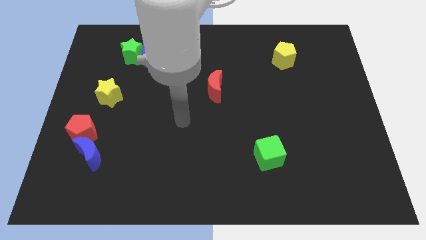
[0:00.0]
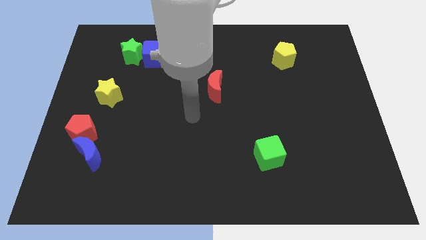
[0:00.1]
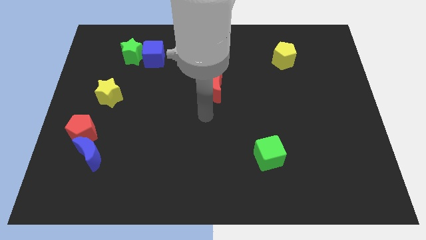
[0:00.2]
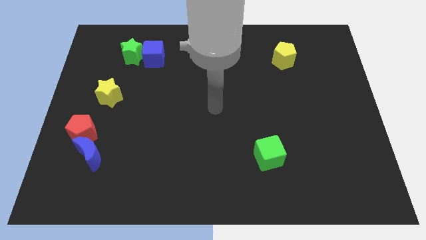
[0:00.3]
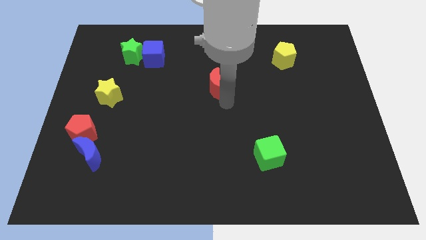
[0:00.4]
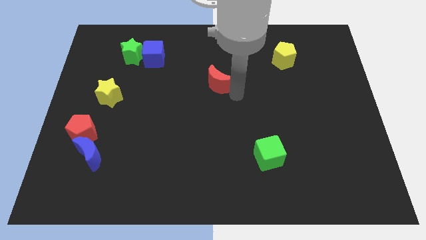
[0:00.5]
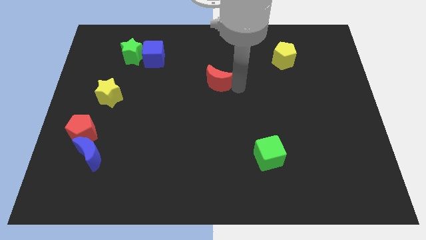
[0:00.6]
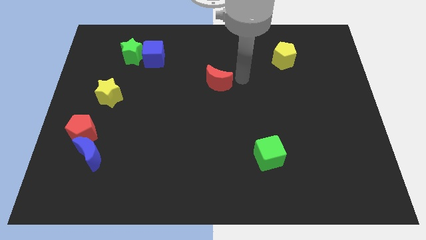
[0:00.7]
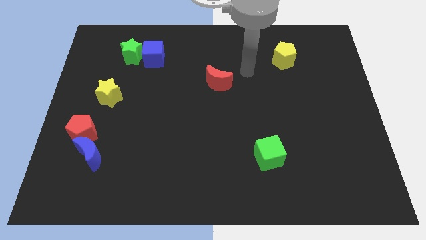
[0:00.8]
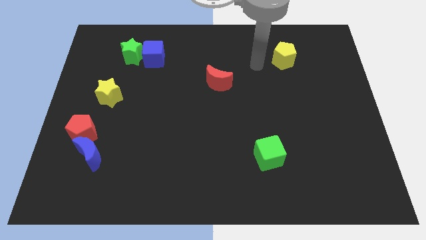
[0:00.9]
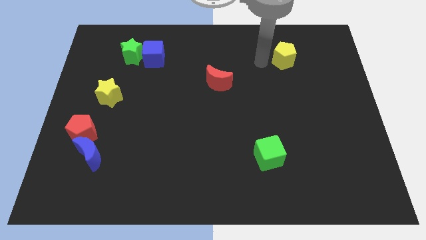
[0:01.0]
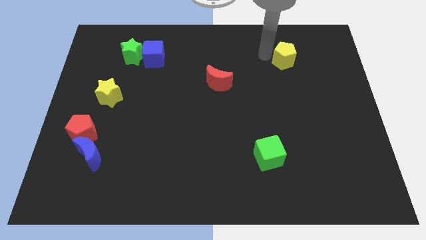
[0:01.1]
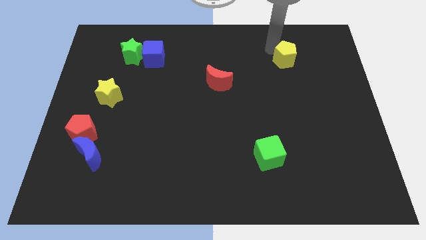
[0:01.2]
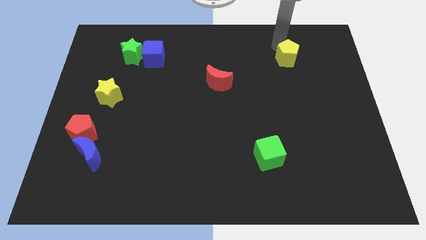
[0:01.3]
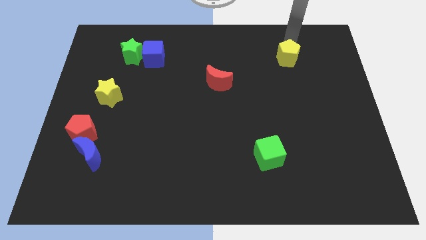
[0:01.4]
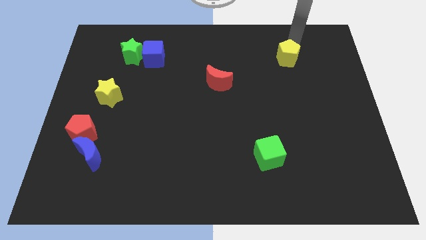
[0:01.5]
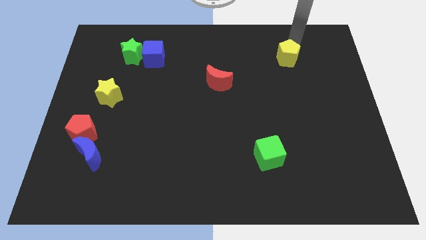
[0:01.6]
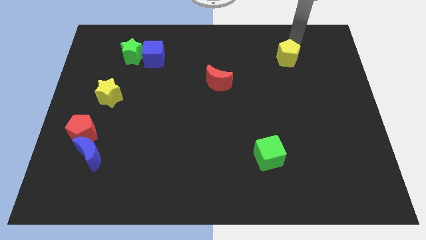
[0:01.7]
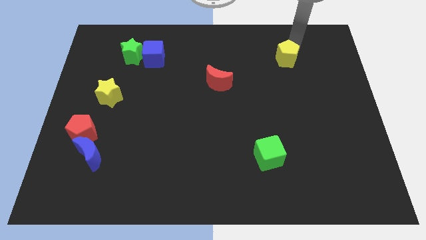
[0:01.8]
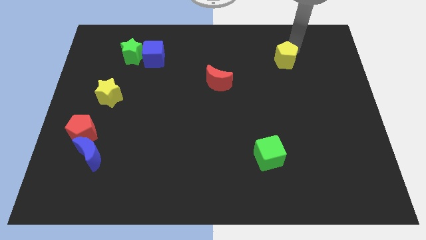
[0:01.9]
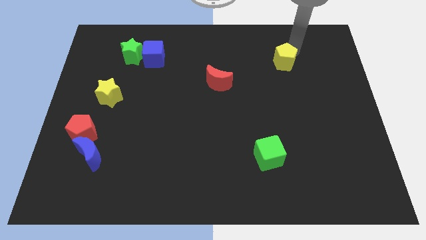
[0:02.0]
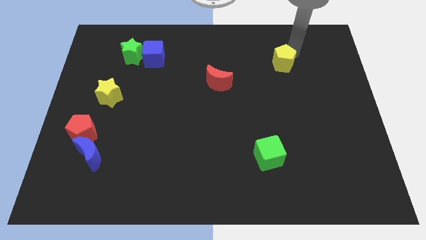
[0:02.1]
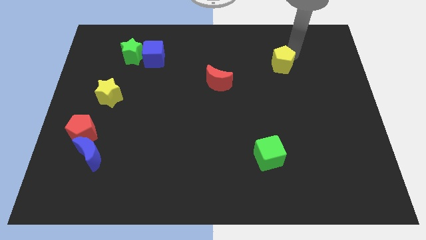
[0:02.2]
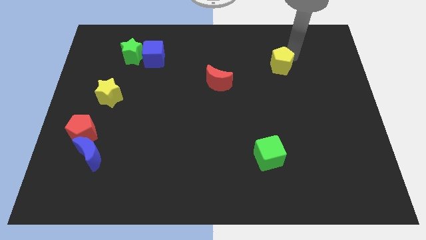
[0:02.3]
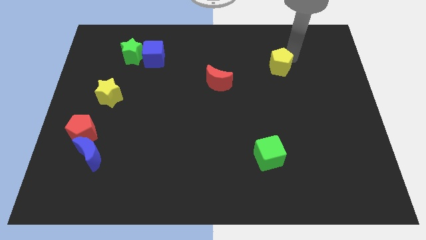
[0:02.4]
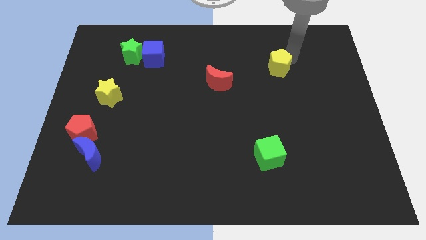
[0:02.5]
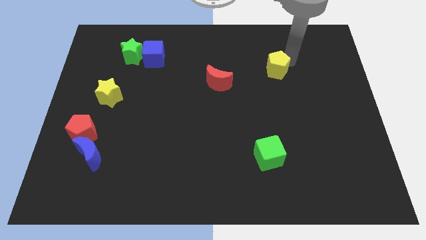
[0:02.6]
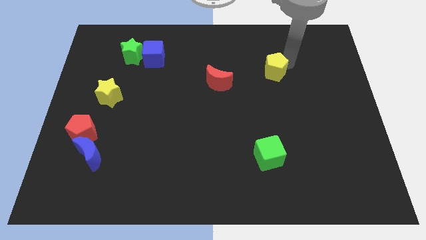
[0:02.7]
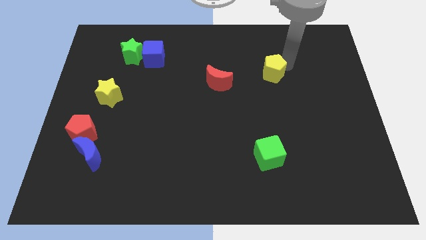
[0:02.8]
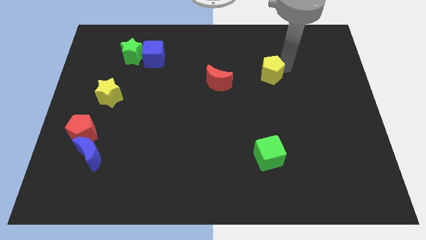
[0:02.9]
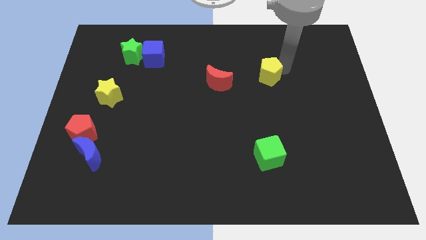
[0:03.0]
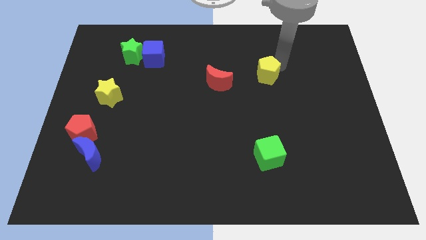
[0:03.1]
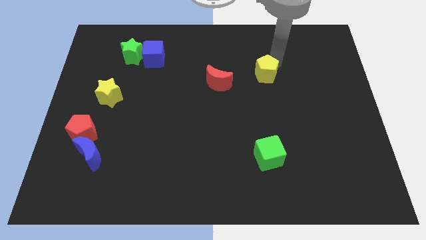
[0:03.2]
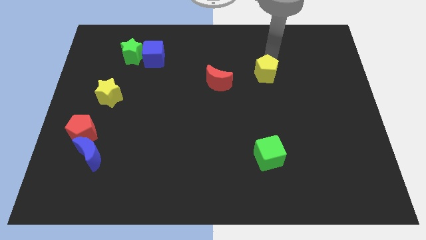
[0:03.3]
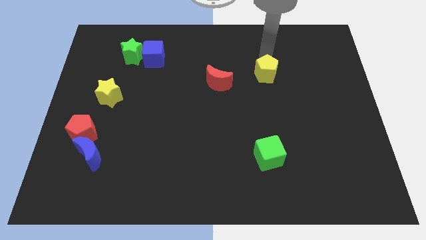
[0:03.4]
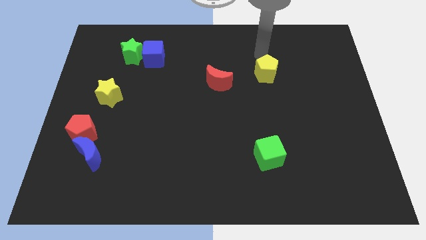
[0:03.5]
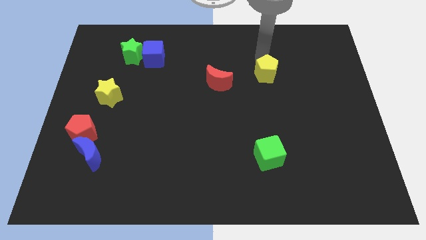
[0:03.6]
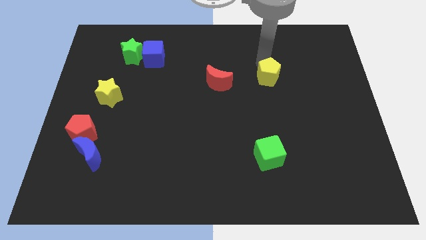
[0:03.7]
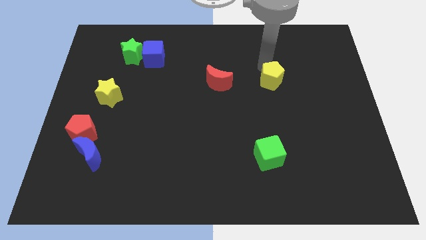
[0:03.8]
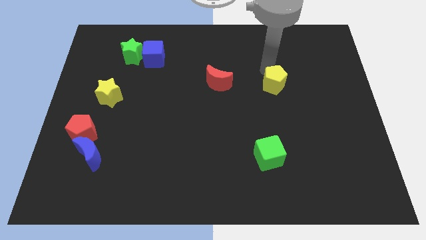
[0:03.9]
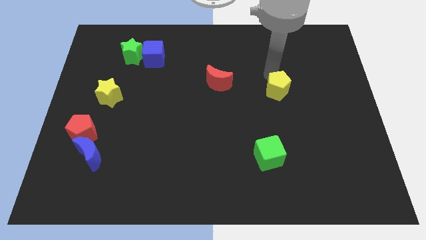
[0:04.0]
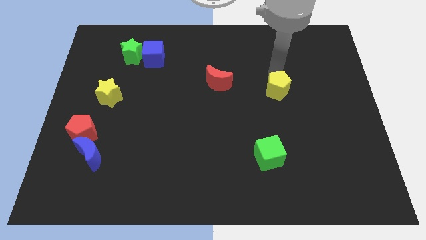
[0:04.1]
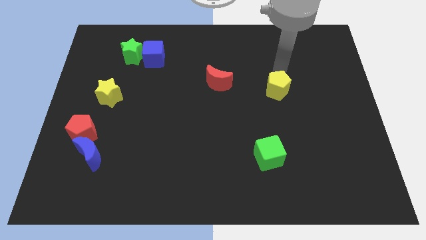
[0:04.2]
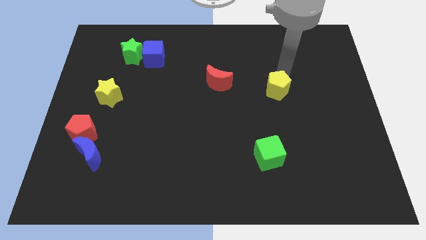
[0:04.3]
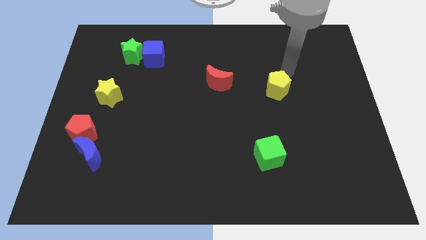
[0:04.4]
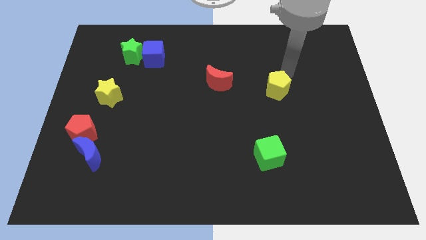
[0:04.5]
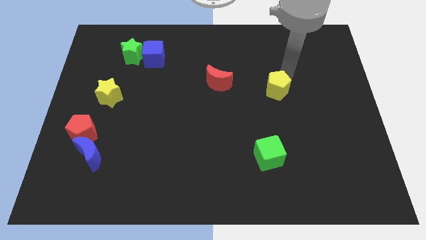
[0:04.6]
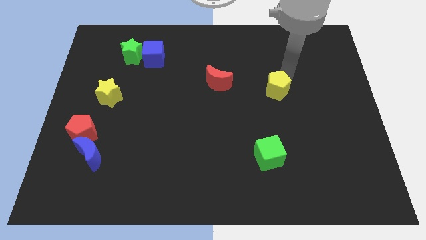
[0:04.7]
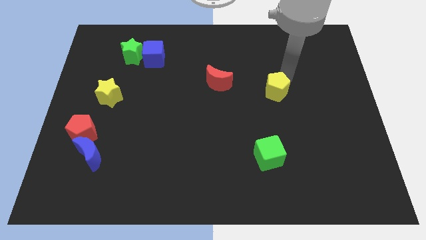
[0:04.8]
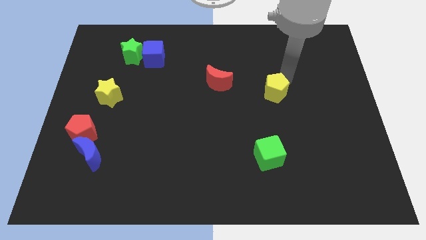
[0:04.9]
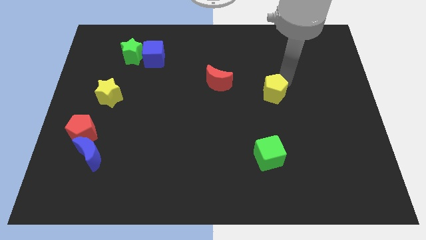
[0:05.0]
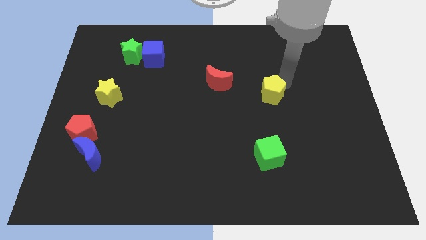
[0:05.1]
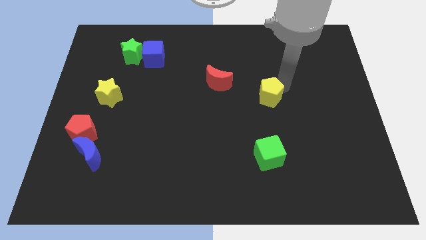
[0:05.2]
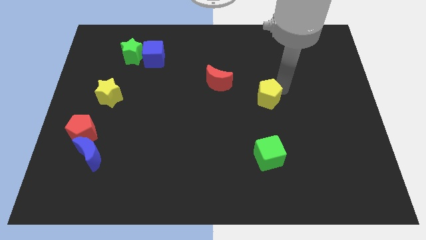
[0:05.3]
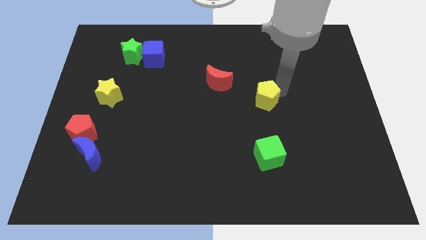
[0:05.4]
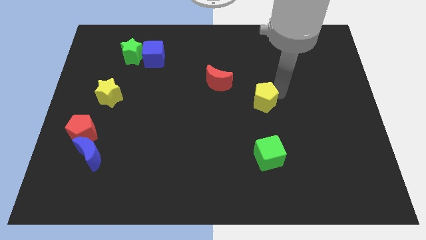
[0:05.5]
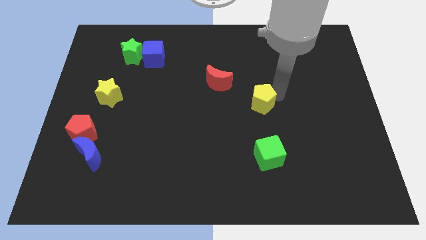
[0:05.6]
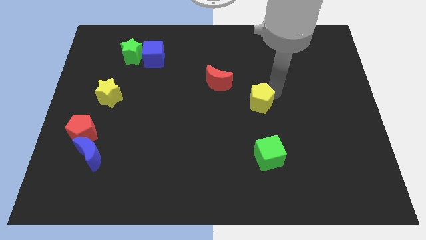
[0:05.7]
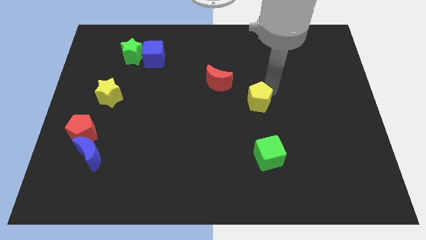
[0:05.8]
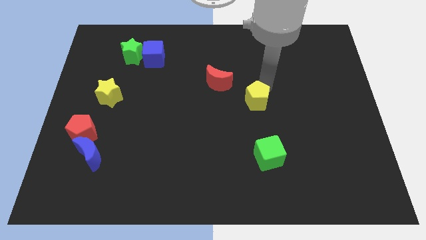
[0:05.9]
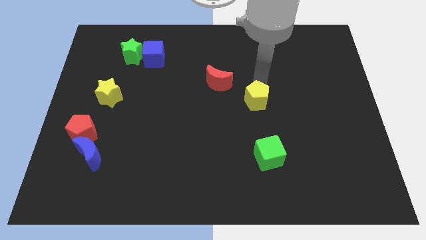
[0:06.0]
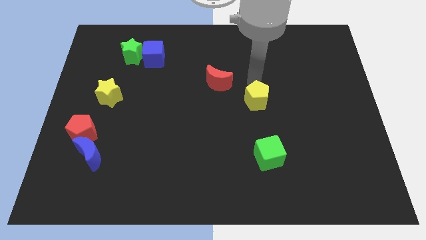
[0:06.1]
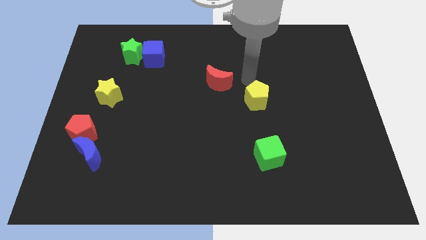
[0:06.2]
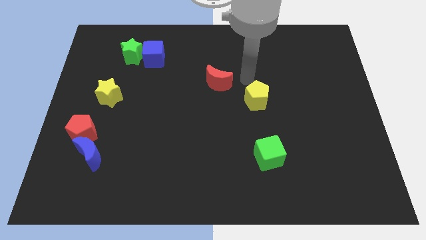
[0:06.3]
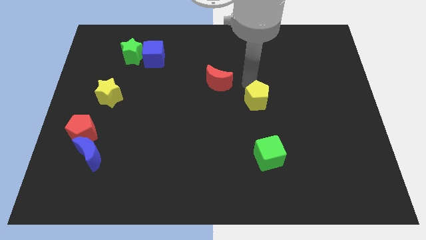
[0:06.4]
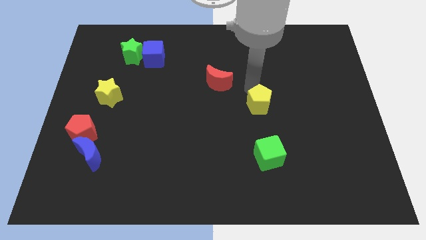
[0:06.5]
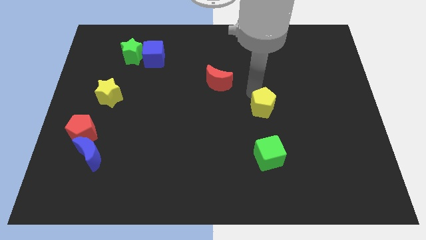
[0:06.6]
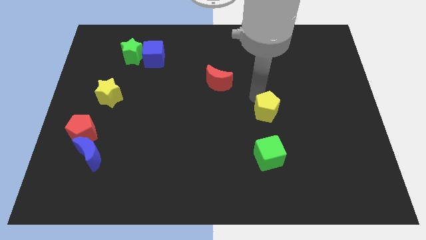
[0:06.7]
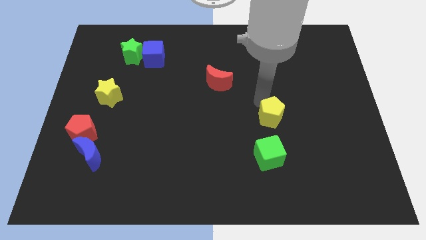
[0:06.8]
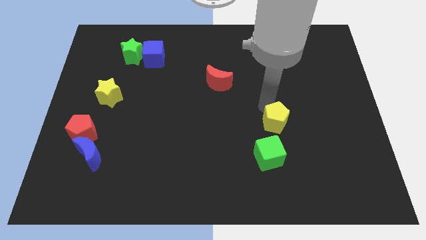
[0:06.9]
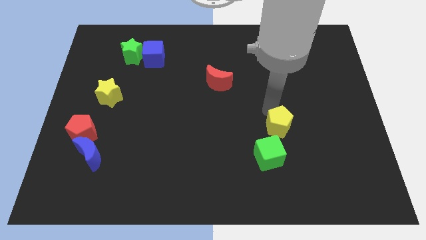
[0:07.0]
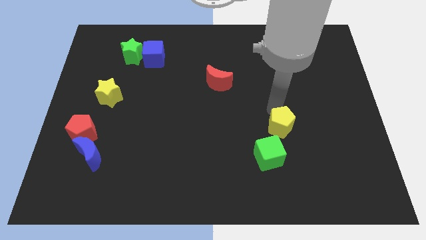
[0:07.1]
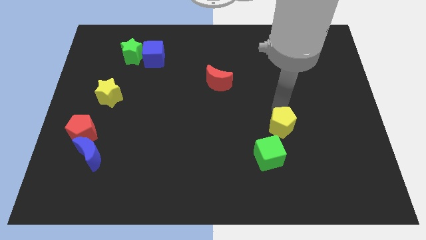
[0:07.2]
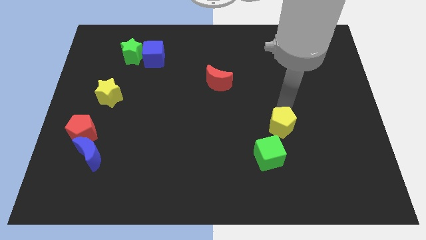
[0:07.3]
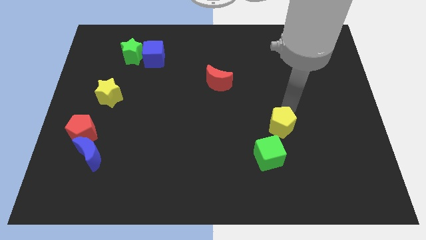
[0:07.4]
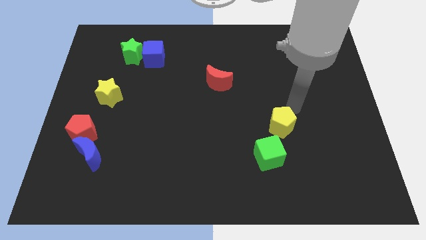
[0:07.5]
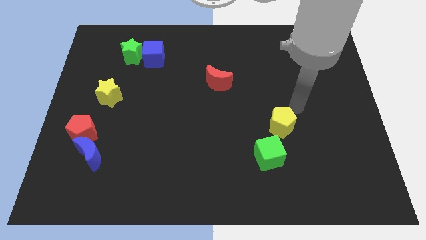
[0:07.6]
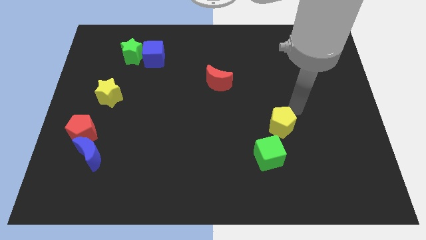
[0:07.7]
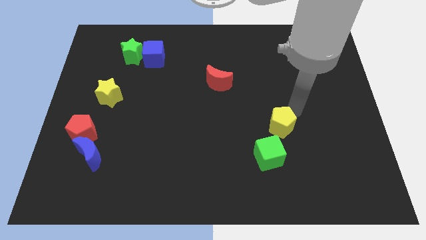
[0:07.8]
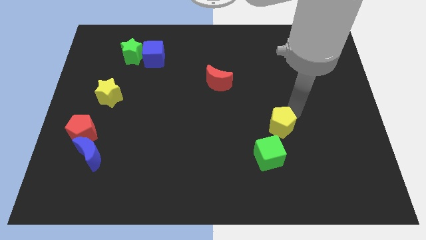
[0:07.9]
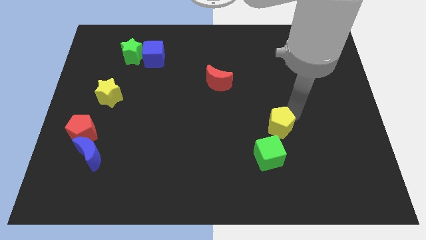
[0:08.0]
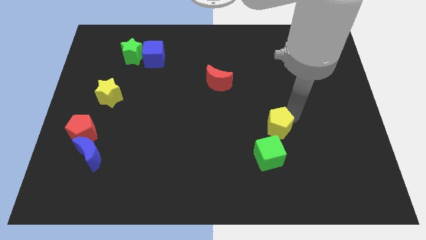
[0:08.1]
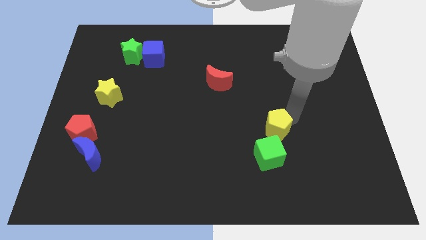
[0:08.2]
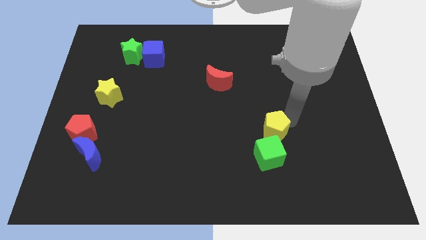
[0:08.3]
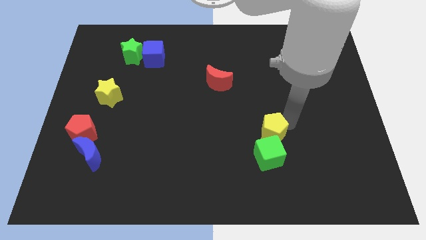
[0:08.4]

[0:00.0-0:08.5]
move the yellow pentagon next to the green cube
